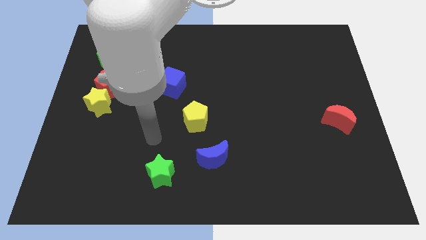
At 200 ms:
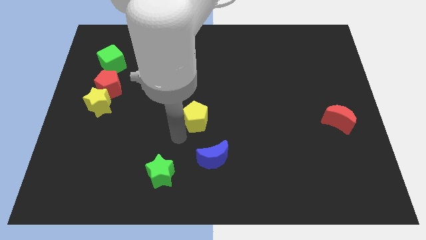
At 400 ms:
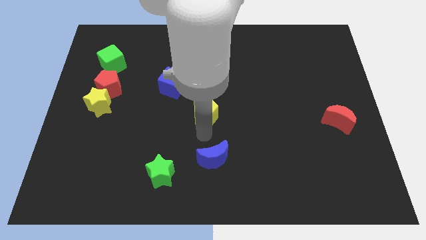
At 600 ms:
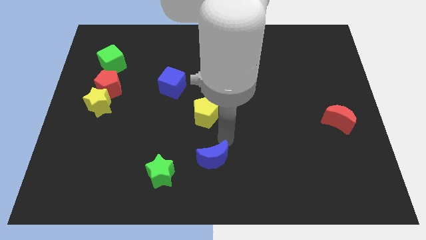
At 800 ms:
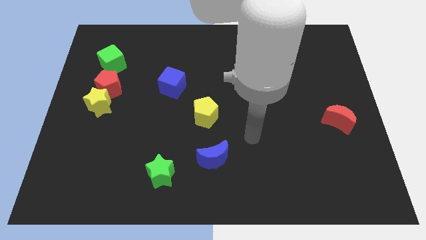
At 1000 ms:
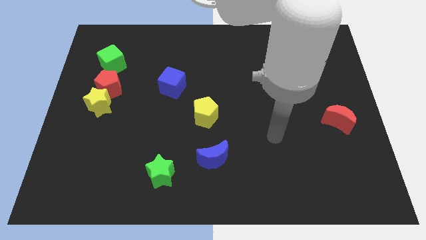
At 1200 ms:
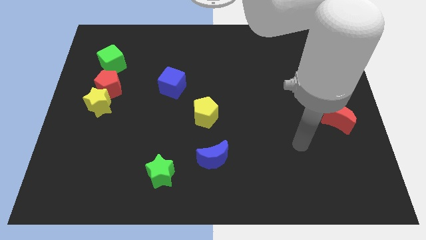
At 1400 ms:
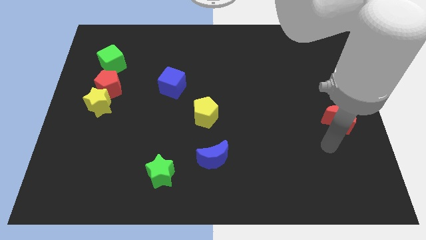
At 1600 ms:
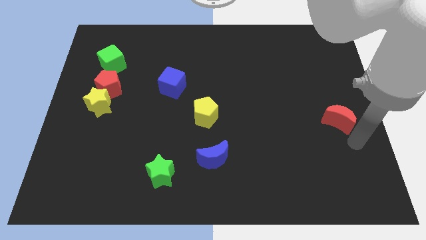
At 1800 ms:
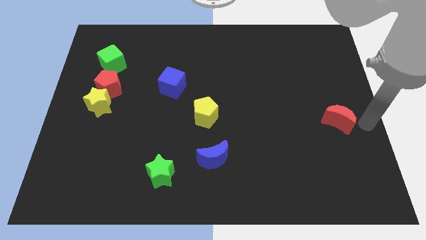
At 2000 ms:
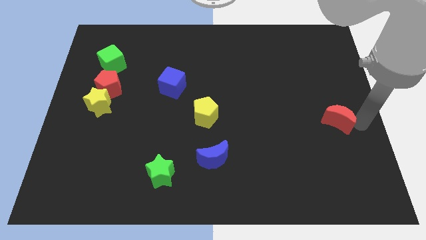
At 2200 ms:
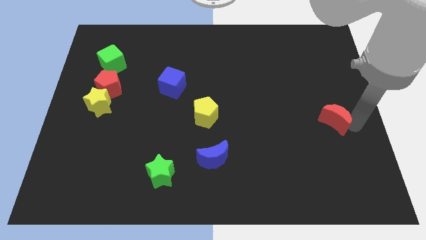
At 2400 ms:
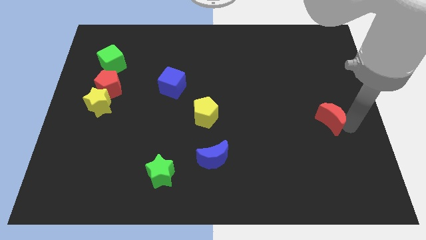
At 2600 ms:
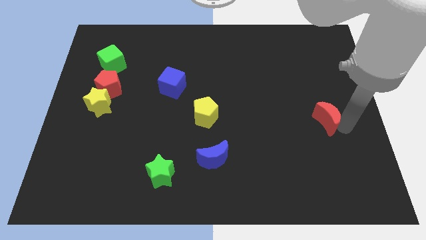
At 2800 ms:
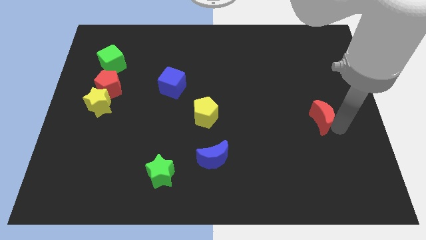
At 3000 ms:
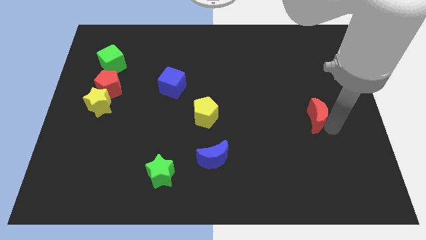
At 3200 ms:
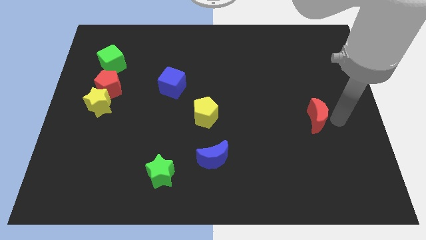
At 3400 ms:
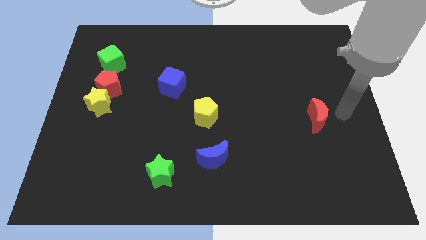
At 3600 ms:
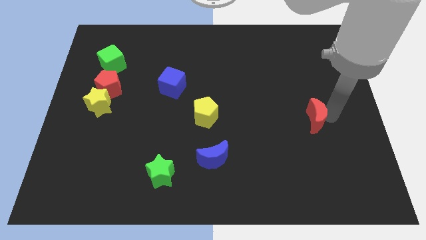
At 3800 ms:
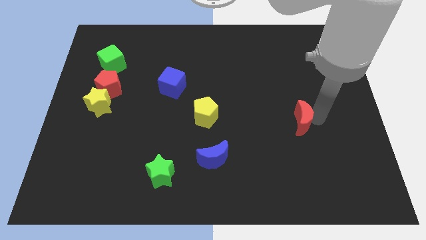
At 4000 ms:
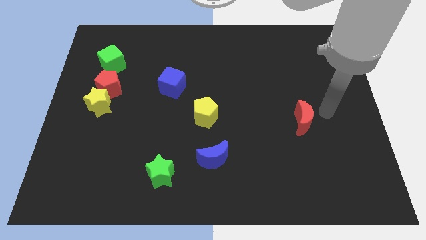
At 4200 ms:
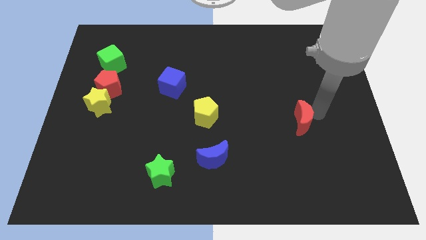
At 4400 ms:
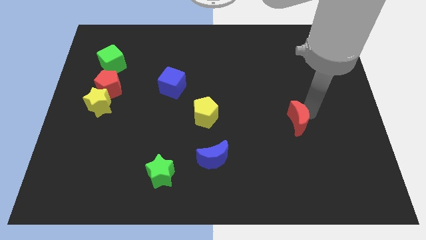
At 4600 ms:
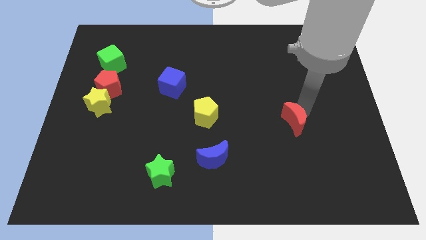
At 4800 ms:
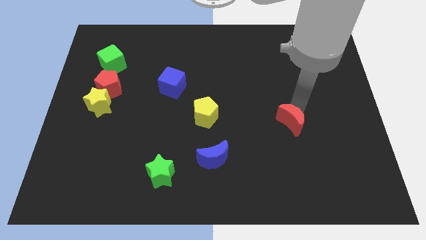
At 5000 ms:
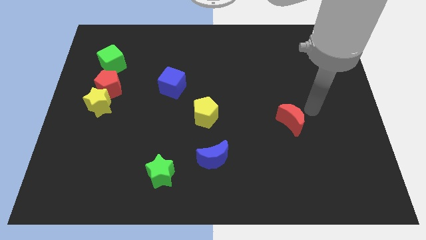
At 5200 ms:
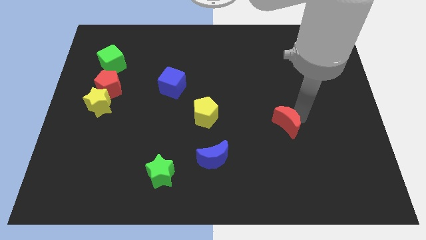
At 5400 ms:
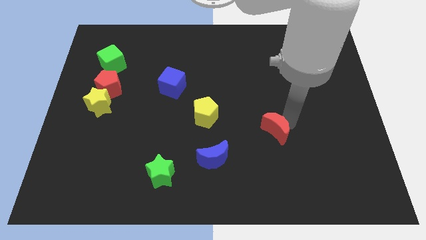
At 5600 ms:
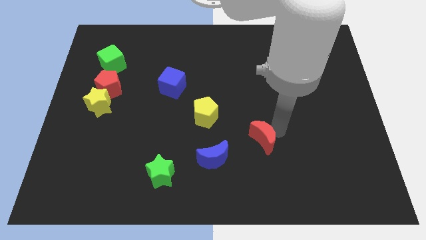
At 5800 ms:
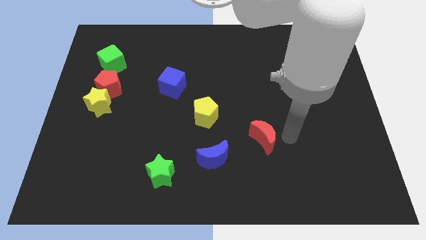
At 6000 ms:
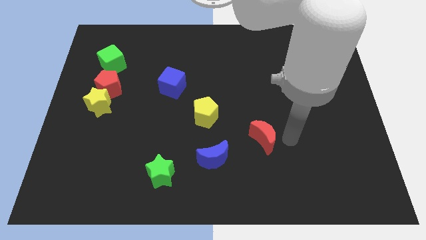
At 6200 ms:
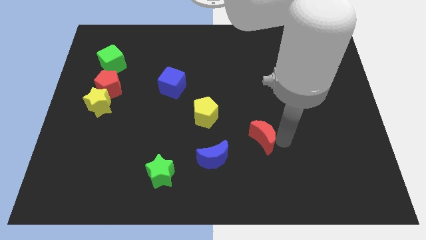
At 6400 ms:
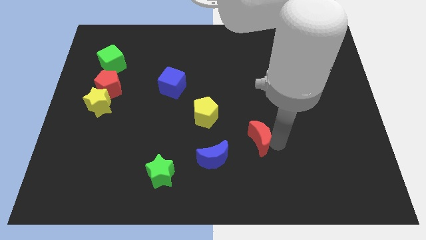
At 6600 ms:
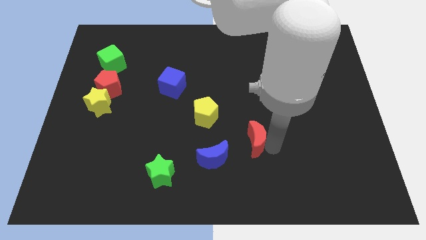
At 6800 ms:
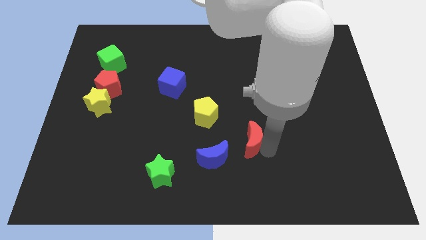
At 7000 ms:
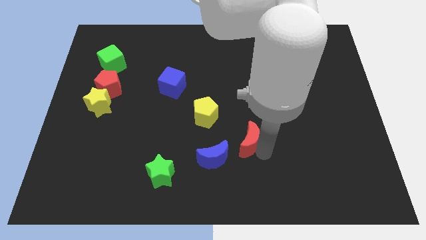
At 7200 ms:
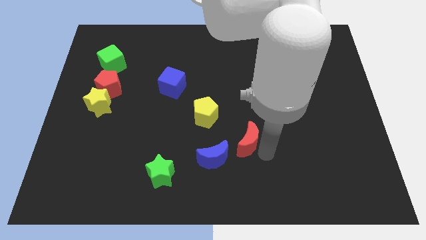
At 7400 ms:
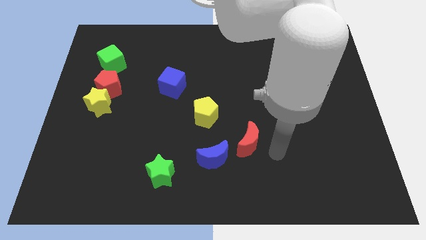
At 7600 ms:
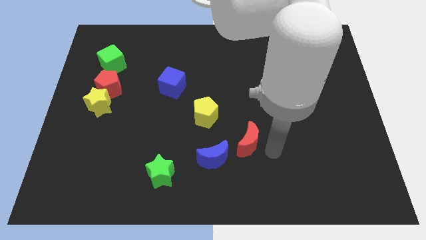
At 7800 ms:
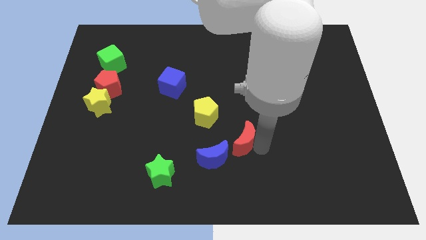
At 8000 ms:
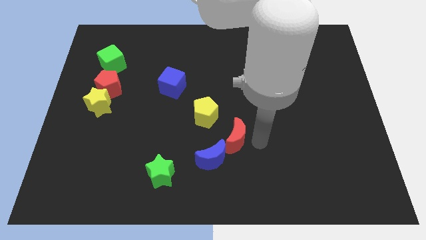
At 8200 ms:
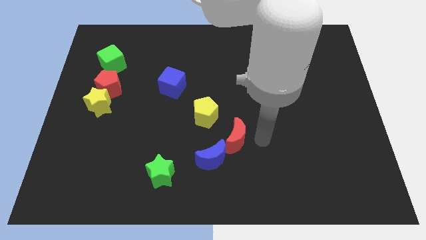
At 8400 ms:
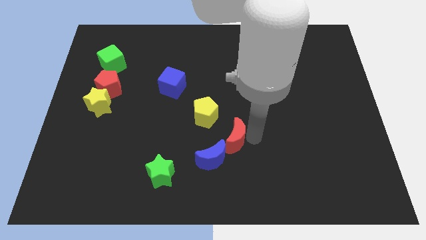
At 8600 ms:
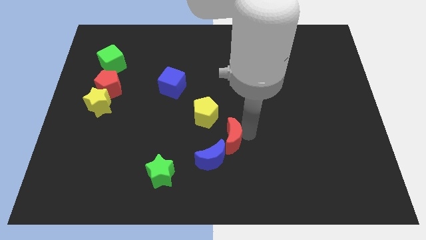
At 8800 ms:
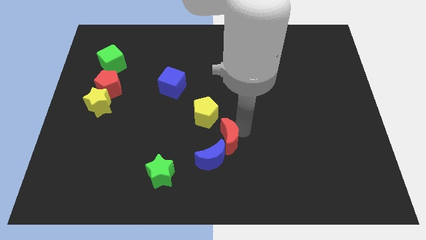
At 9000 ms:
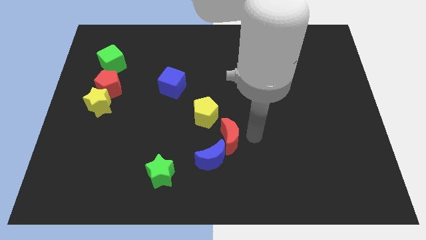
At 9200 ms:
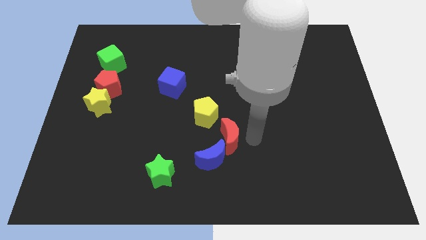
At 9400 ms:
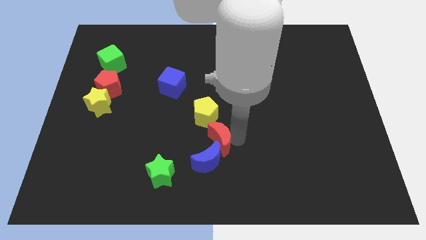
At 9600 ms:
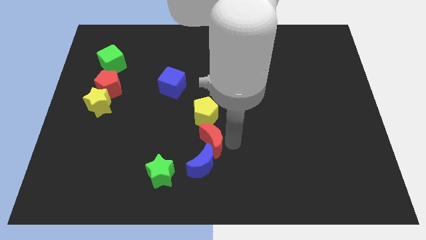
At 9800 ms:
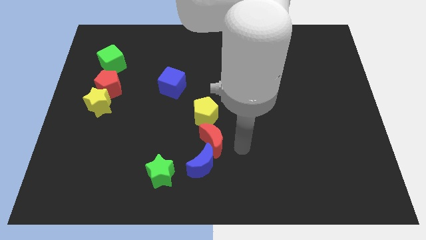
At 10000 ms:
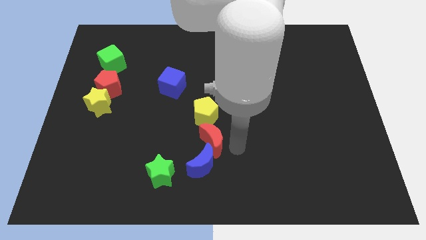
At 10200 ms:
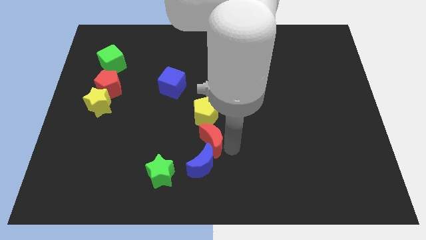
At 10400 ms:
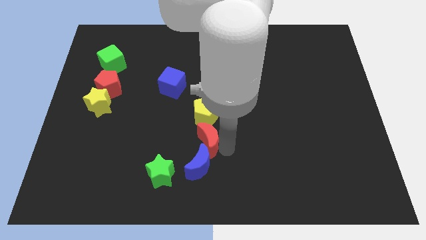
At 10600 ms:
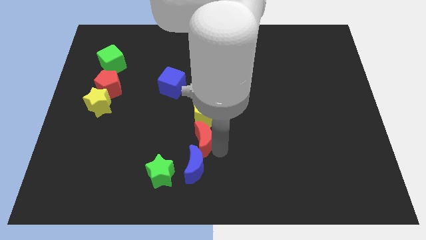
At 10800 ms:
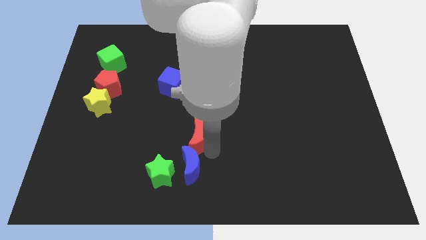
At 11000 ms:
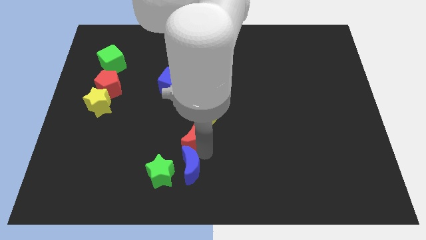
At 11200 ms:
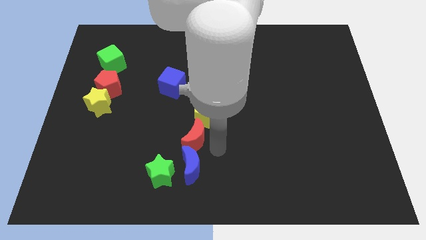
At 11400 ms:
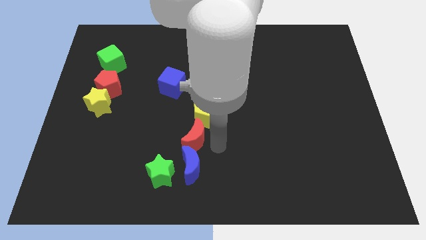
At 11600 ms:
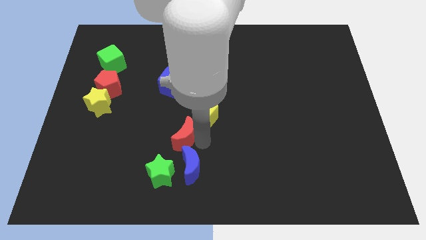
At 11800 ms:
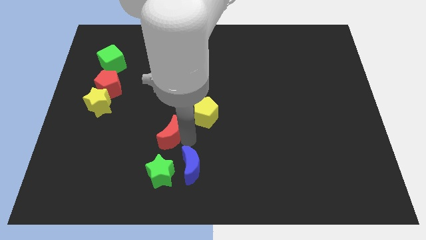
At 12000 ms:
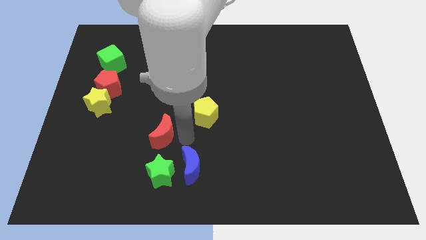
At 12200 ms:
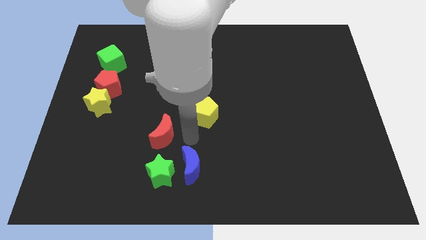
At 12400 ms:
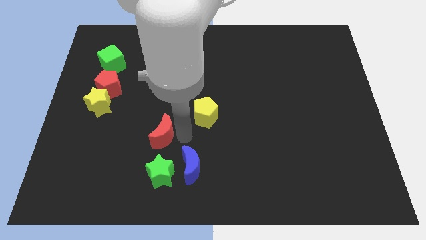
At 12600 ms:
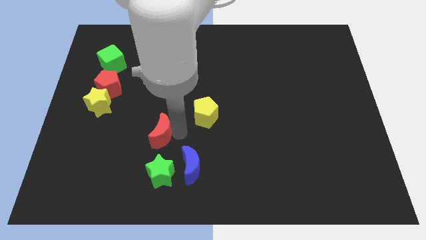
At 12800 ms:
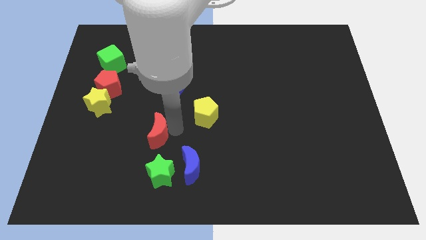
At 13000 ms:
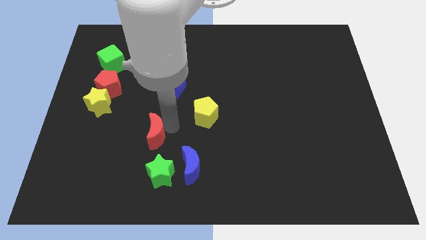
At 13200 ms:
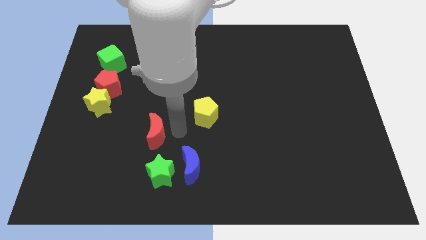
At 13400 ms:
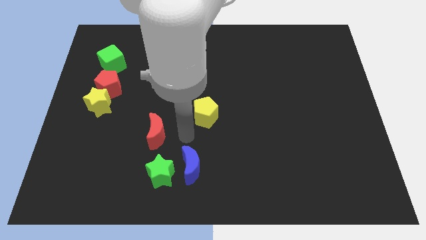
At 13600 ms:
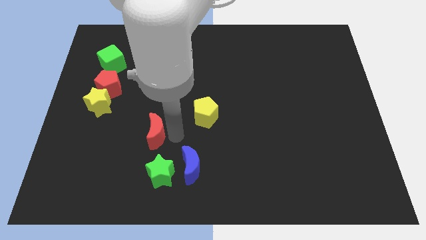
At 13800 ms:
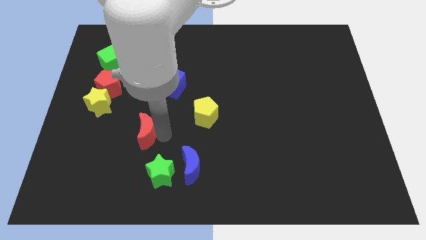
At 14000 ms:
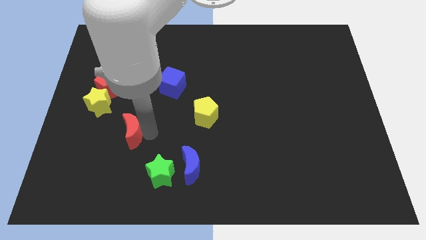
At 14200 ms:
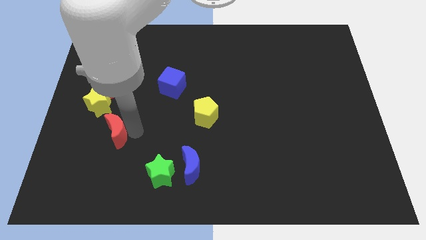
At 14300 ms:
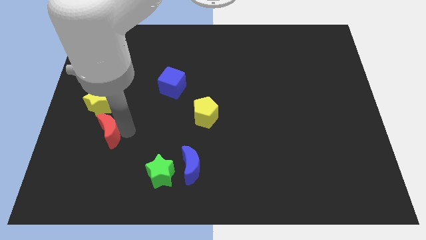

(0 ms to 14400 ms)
put the red moon to the bottom side of the yellow star
